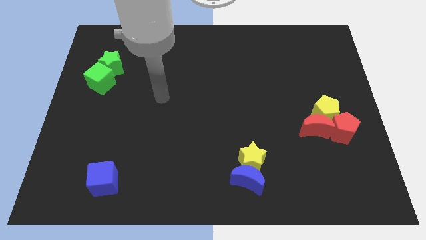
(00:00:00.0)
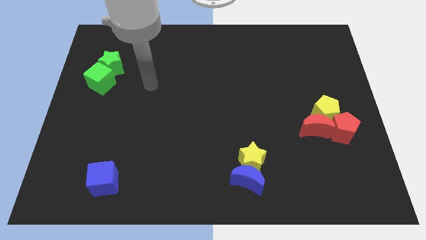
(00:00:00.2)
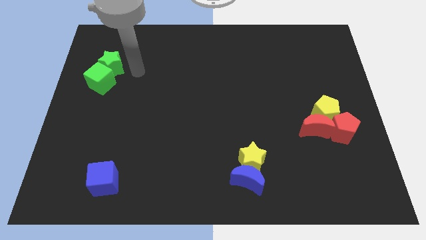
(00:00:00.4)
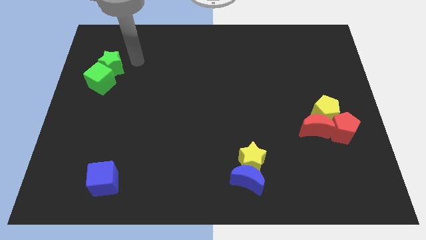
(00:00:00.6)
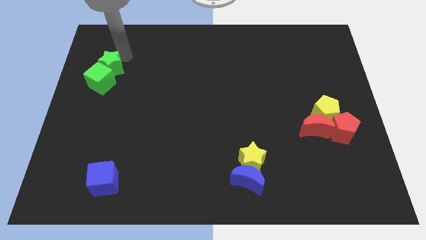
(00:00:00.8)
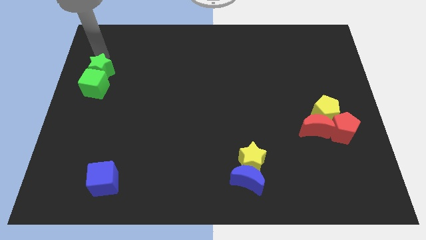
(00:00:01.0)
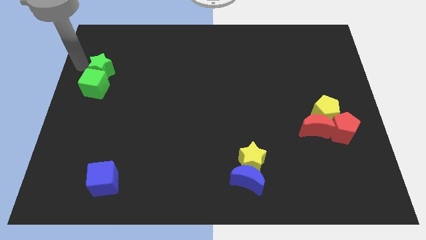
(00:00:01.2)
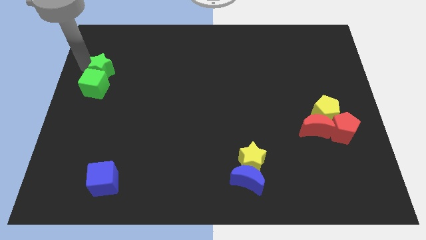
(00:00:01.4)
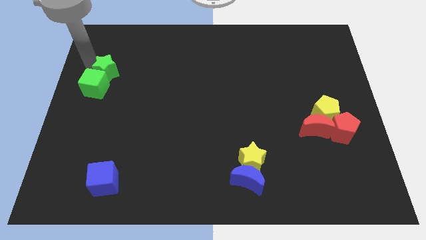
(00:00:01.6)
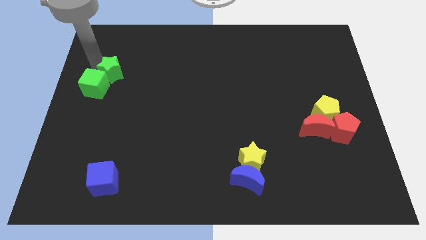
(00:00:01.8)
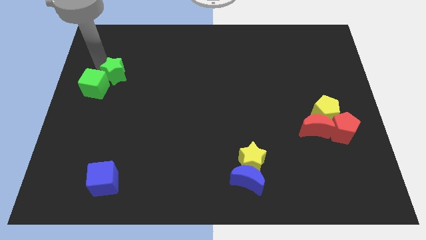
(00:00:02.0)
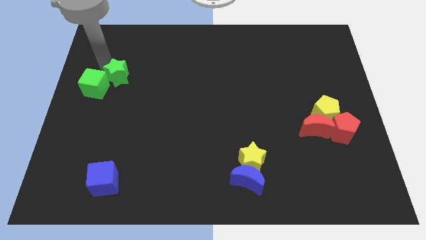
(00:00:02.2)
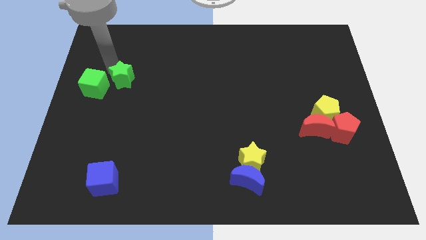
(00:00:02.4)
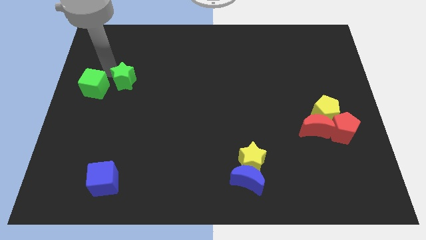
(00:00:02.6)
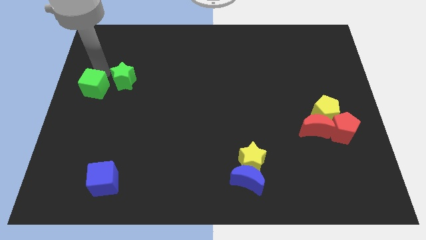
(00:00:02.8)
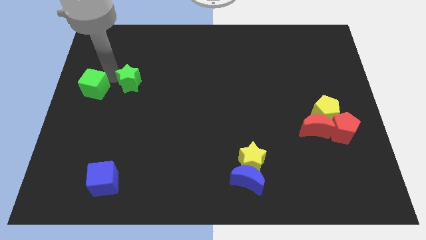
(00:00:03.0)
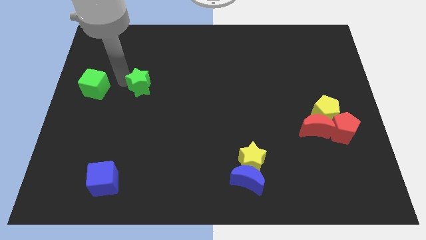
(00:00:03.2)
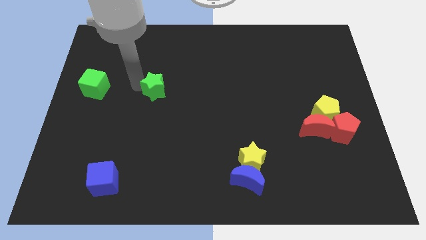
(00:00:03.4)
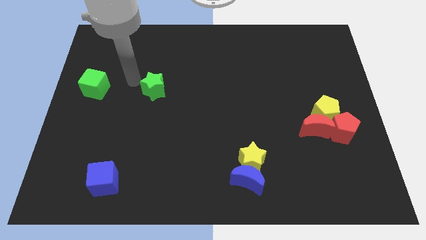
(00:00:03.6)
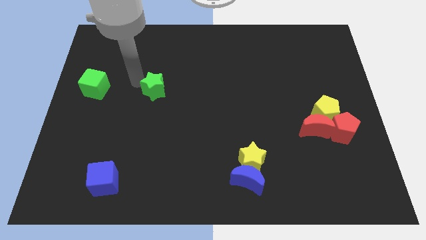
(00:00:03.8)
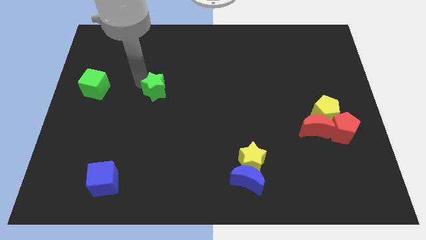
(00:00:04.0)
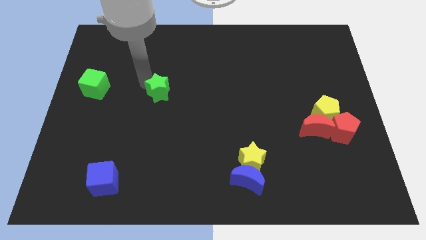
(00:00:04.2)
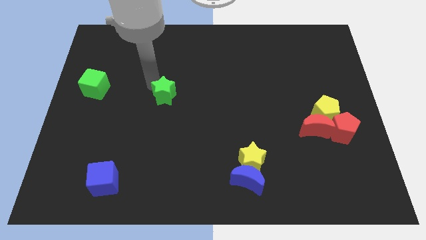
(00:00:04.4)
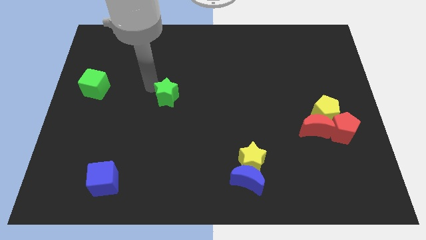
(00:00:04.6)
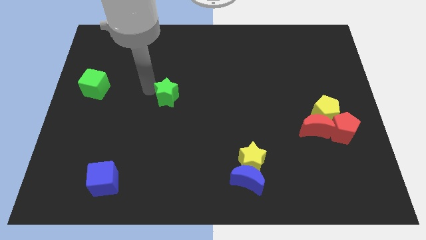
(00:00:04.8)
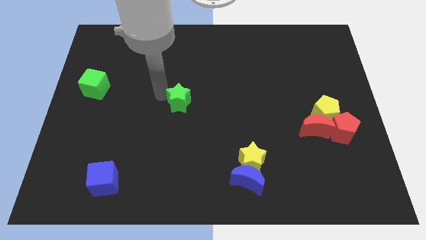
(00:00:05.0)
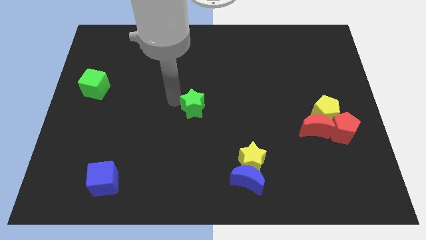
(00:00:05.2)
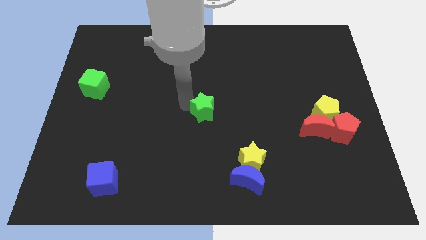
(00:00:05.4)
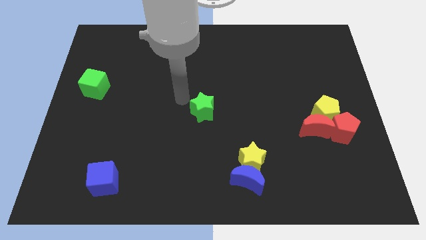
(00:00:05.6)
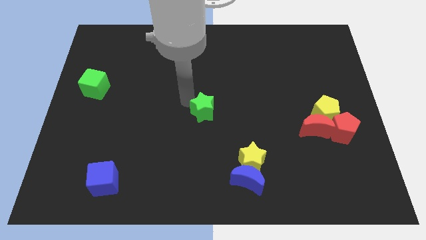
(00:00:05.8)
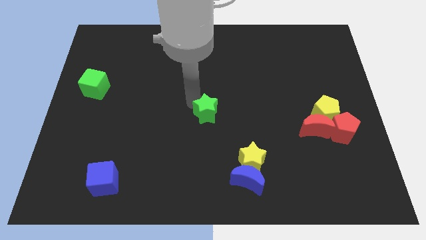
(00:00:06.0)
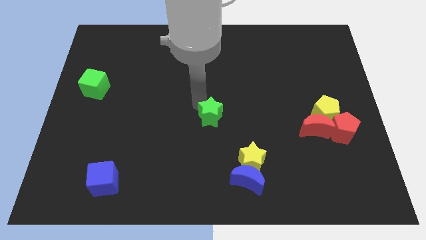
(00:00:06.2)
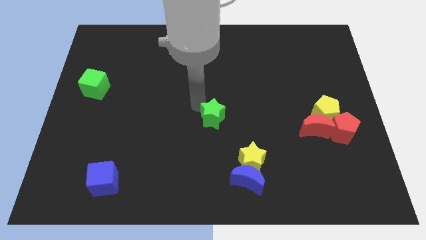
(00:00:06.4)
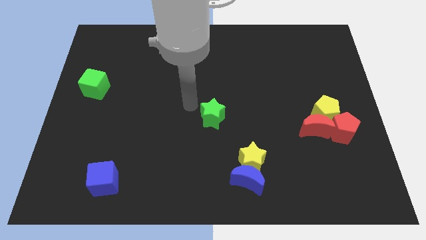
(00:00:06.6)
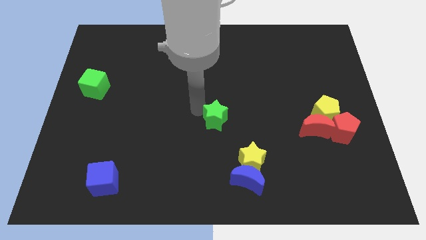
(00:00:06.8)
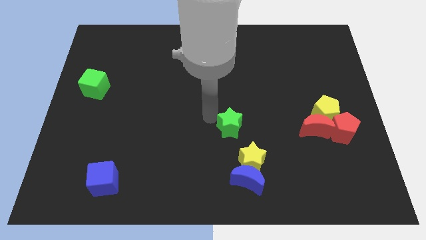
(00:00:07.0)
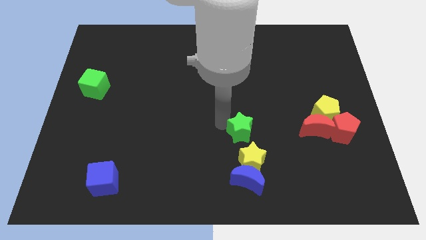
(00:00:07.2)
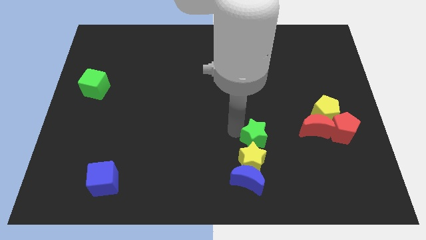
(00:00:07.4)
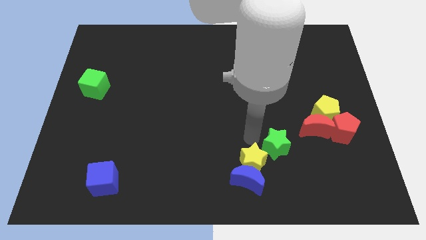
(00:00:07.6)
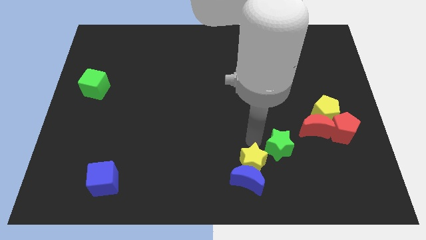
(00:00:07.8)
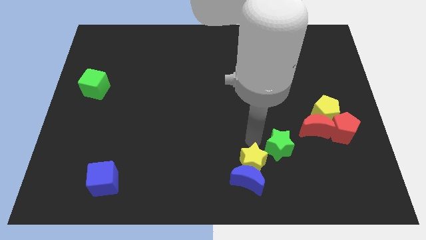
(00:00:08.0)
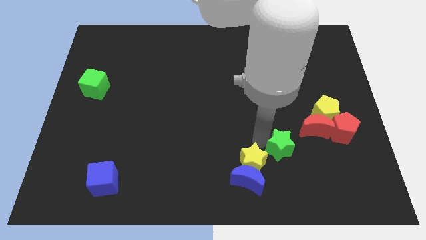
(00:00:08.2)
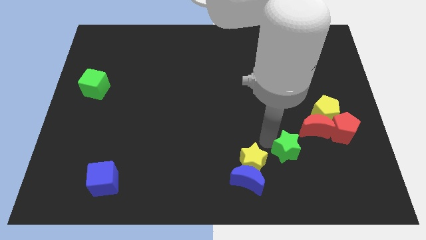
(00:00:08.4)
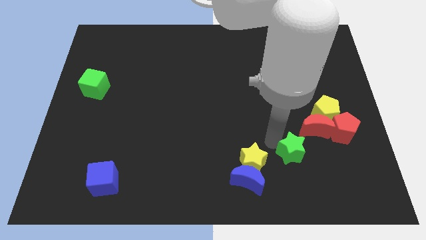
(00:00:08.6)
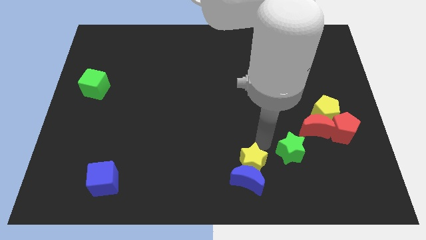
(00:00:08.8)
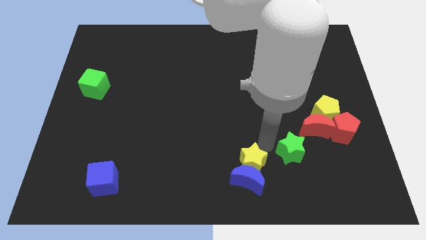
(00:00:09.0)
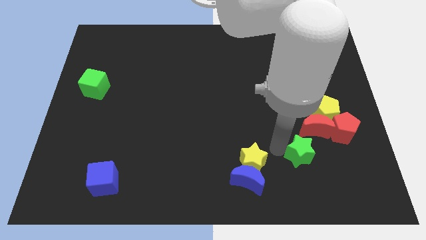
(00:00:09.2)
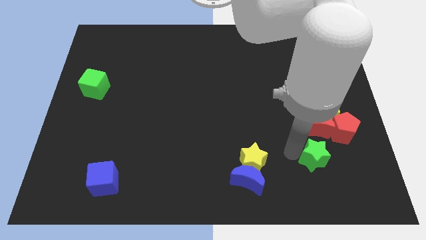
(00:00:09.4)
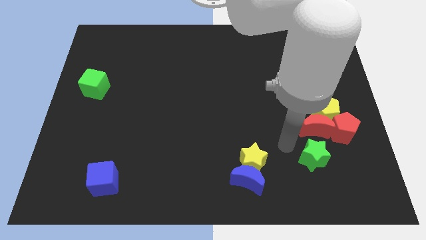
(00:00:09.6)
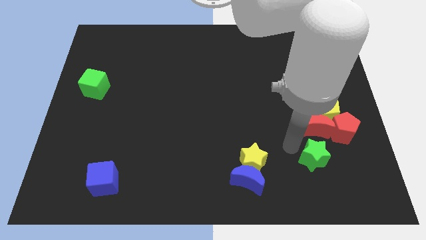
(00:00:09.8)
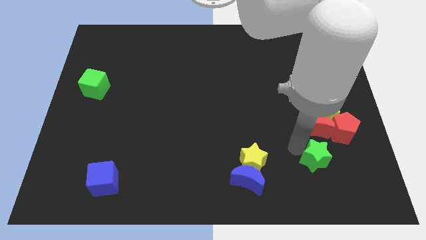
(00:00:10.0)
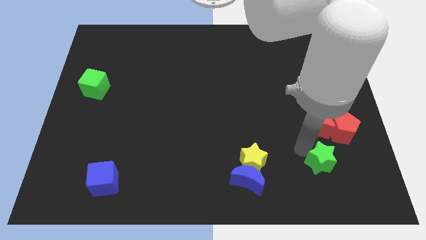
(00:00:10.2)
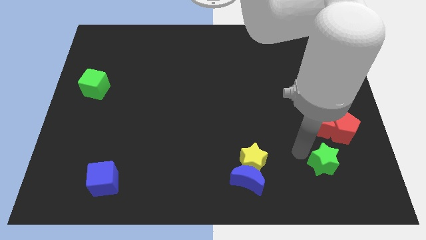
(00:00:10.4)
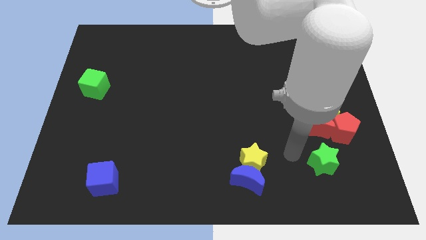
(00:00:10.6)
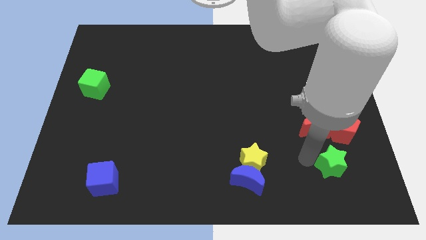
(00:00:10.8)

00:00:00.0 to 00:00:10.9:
slide the green star to the bottom of the red pentagon
